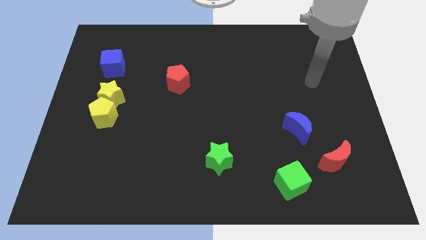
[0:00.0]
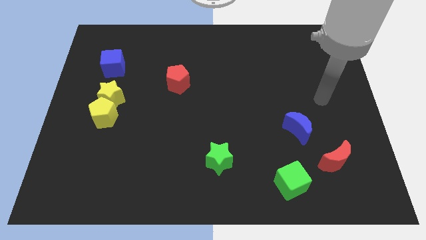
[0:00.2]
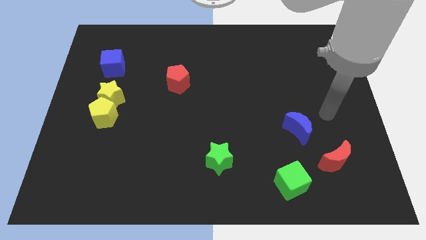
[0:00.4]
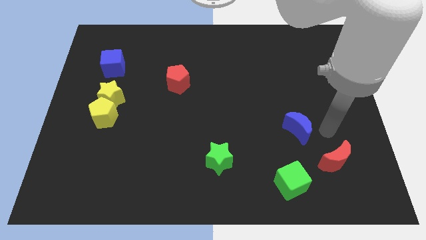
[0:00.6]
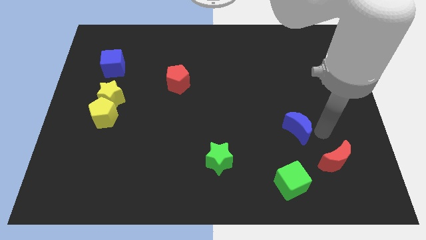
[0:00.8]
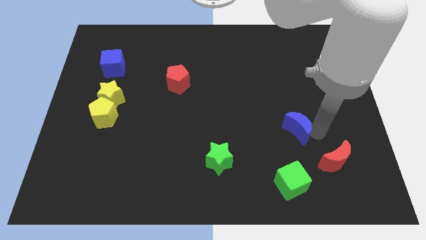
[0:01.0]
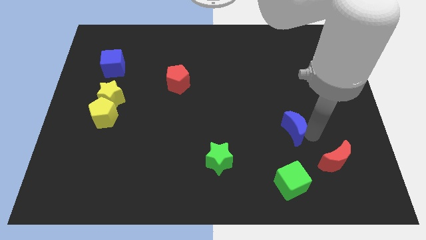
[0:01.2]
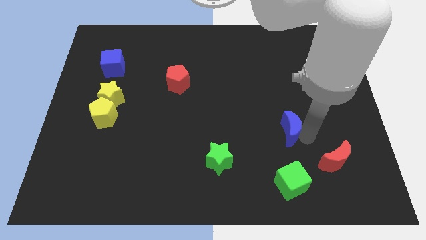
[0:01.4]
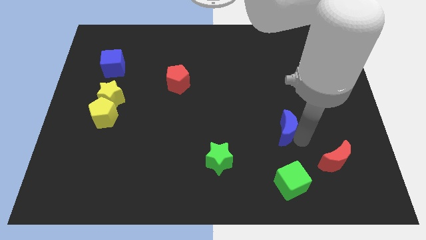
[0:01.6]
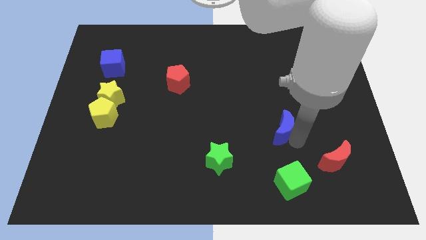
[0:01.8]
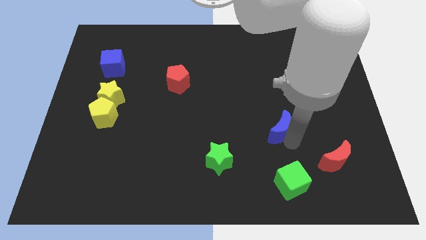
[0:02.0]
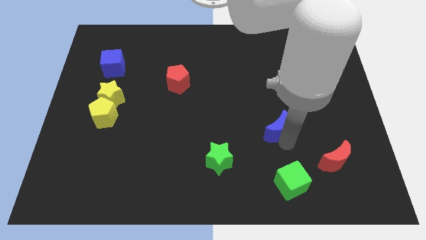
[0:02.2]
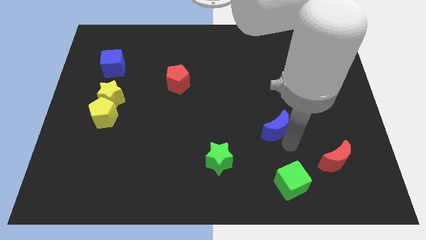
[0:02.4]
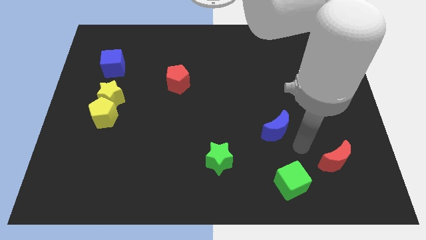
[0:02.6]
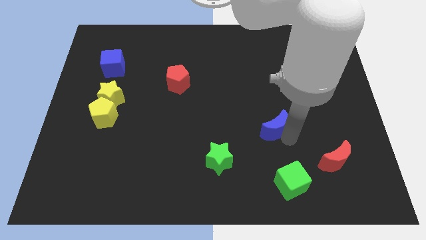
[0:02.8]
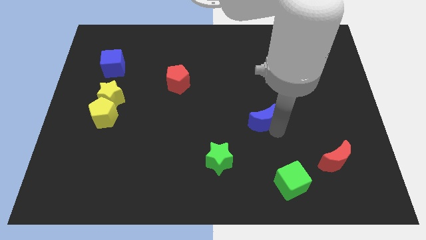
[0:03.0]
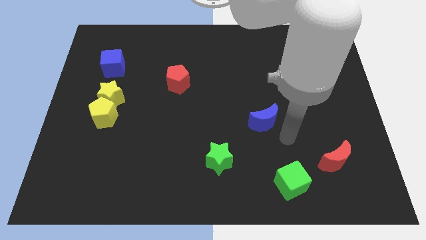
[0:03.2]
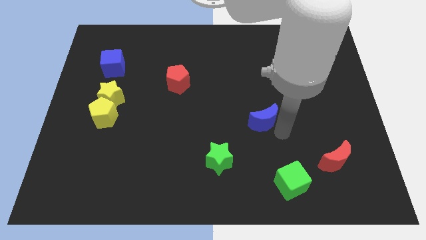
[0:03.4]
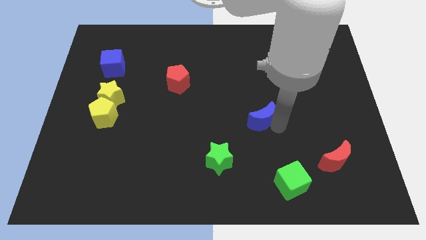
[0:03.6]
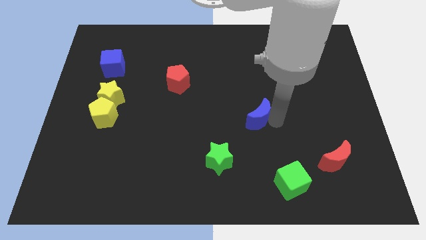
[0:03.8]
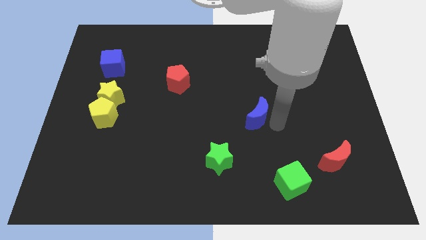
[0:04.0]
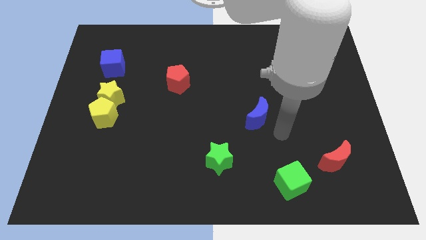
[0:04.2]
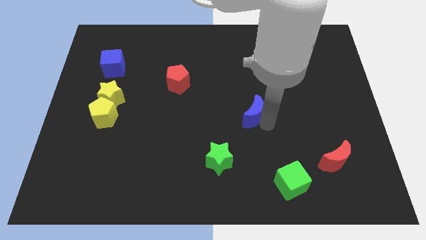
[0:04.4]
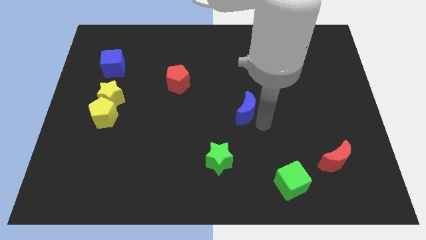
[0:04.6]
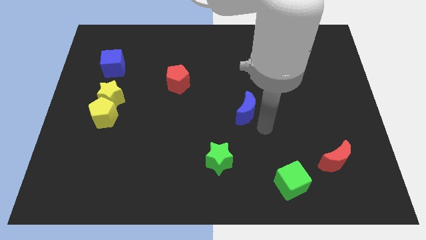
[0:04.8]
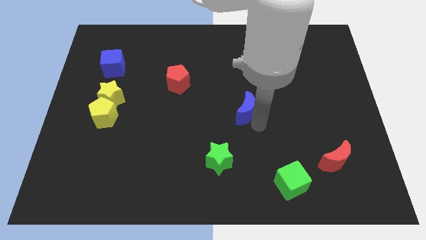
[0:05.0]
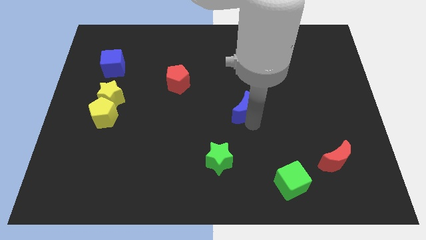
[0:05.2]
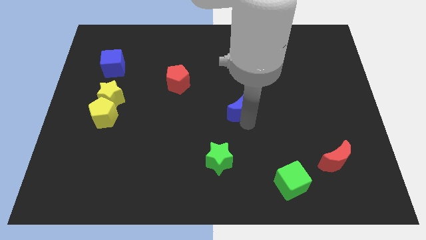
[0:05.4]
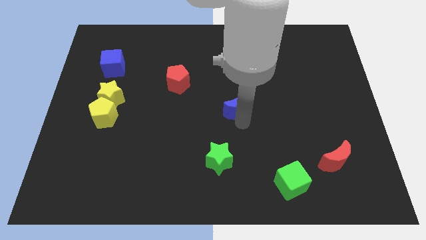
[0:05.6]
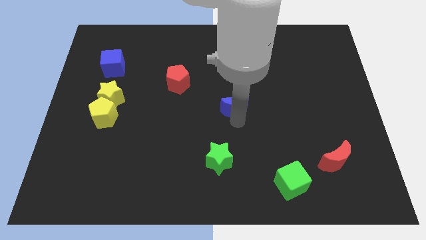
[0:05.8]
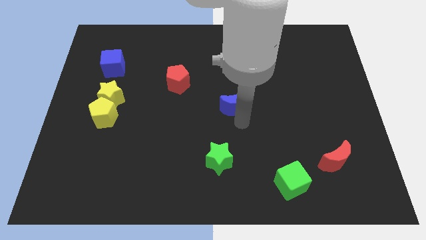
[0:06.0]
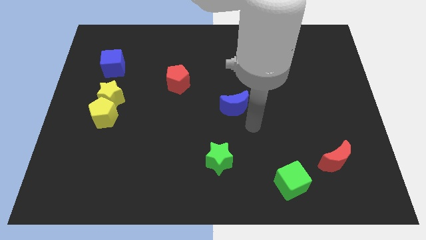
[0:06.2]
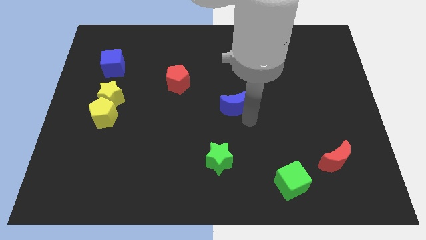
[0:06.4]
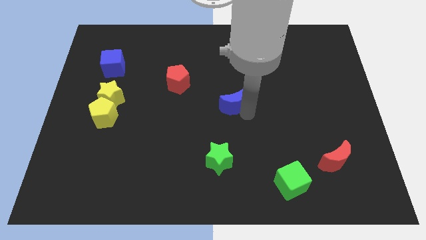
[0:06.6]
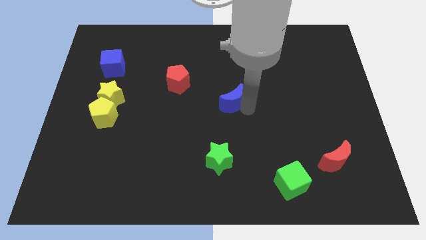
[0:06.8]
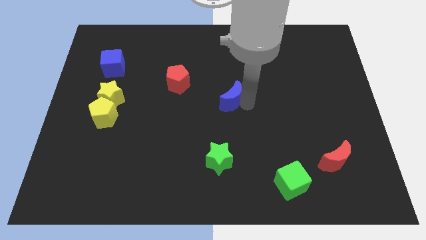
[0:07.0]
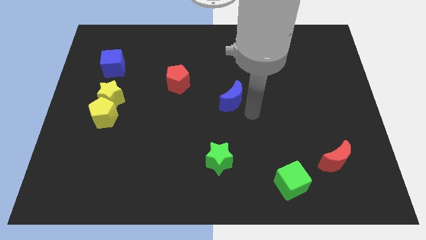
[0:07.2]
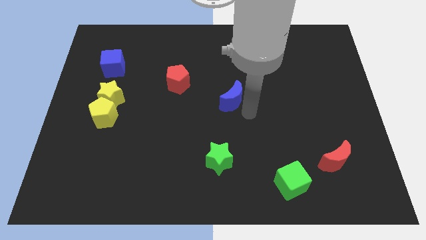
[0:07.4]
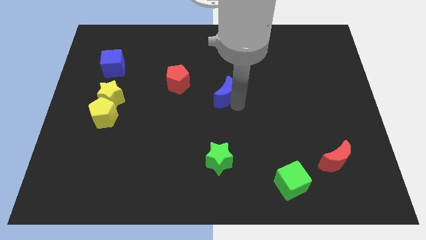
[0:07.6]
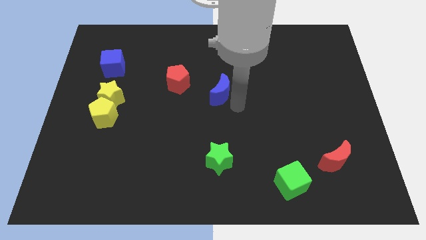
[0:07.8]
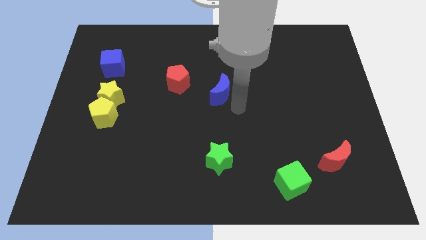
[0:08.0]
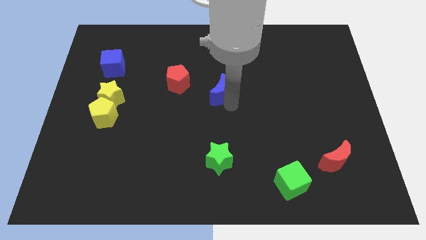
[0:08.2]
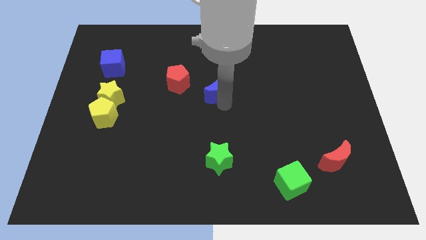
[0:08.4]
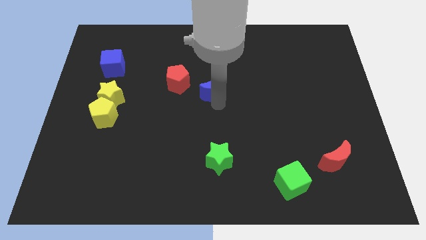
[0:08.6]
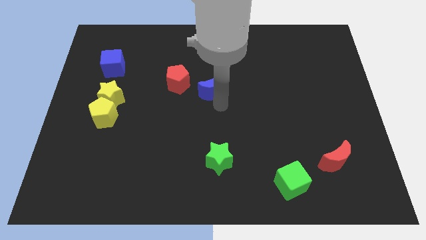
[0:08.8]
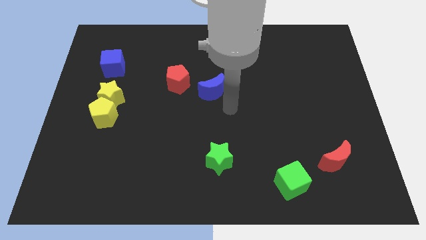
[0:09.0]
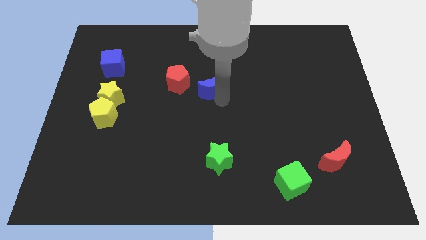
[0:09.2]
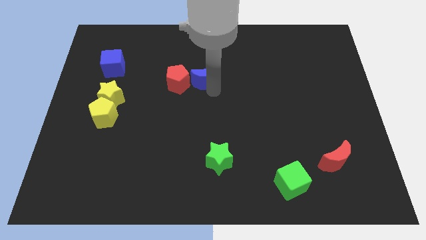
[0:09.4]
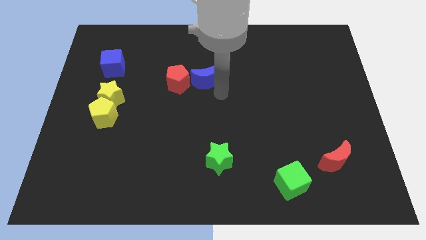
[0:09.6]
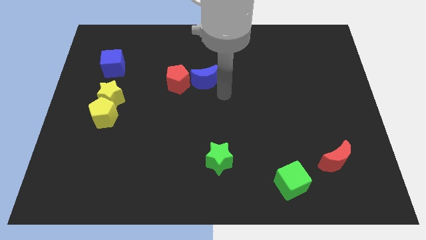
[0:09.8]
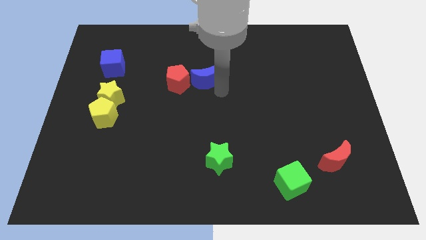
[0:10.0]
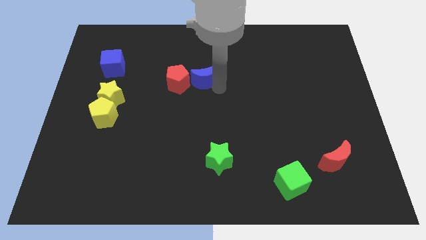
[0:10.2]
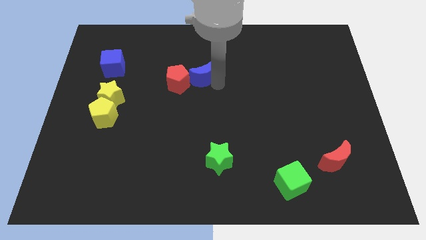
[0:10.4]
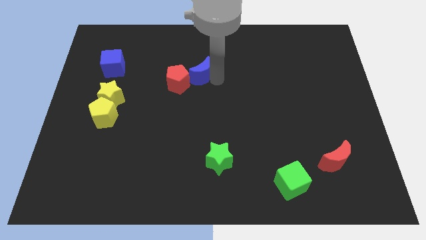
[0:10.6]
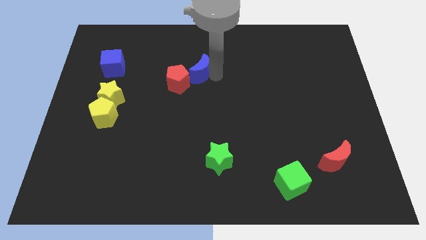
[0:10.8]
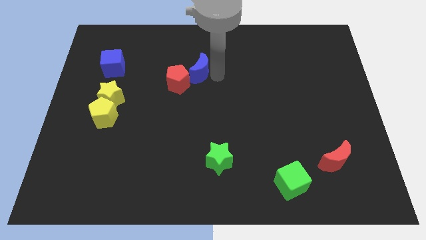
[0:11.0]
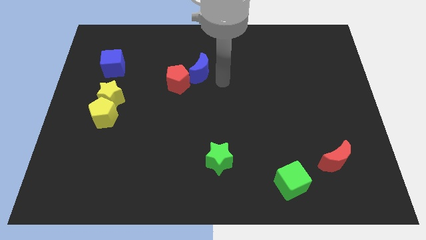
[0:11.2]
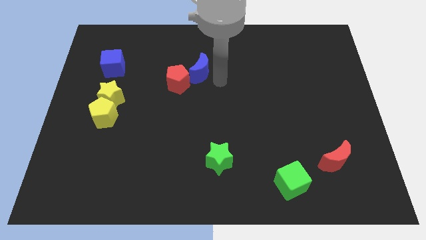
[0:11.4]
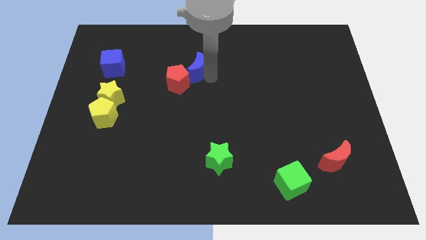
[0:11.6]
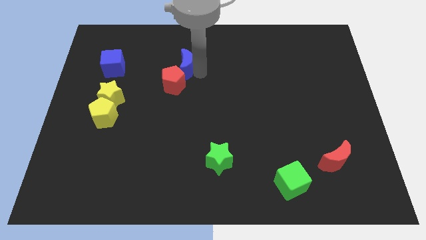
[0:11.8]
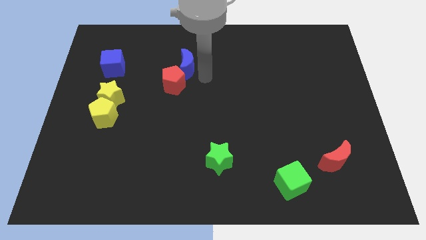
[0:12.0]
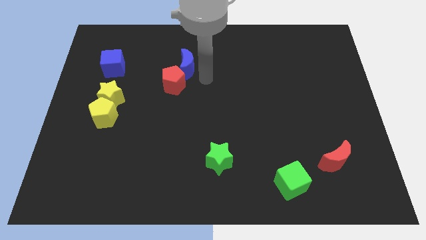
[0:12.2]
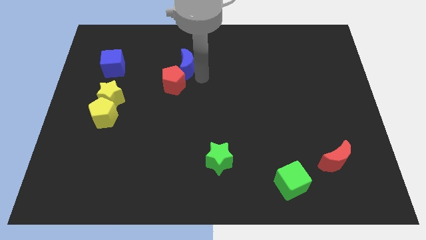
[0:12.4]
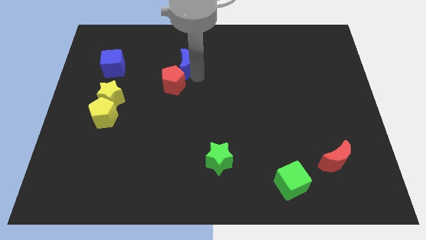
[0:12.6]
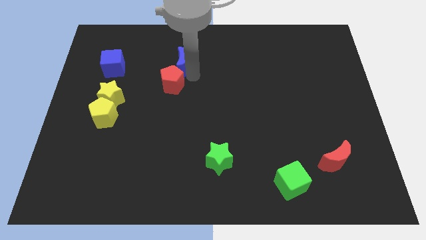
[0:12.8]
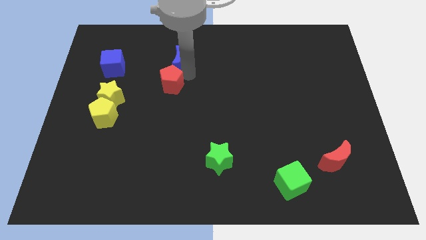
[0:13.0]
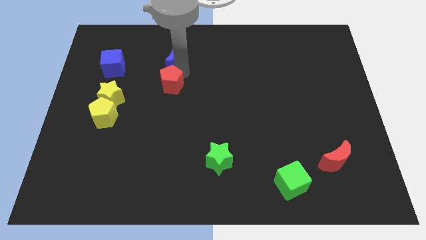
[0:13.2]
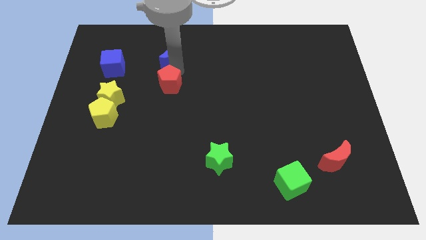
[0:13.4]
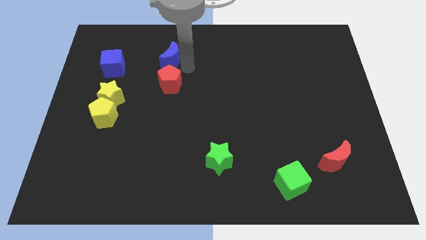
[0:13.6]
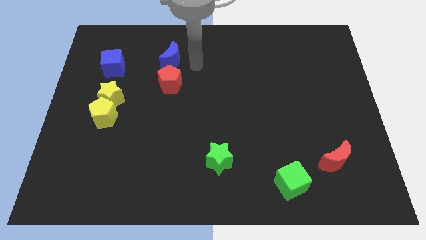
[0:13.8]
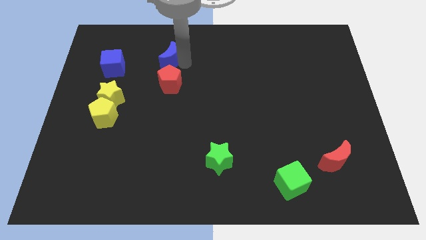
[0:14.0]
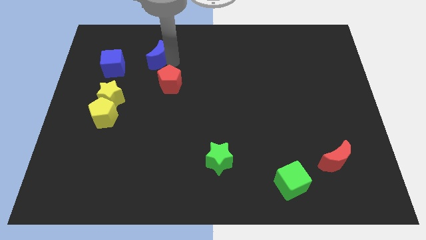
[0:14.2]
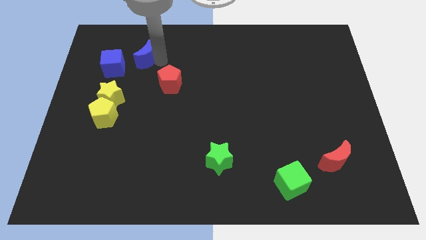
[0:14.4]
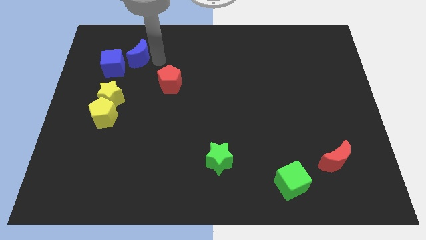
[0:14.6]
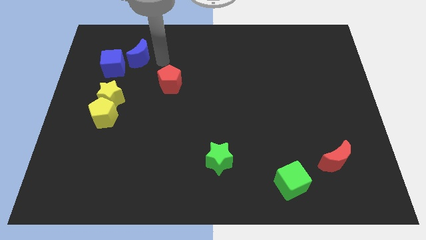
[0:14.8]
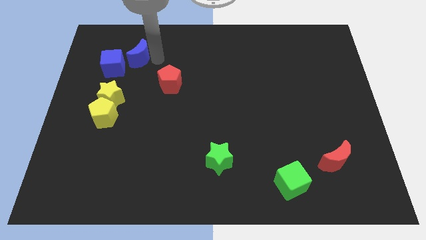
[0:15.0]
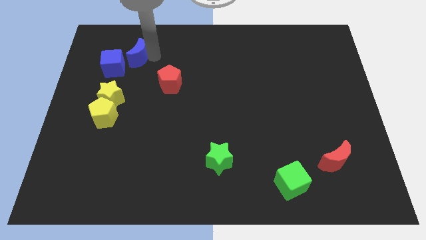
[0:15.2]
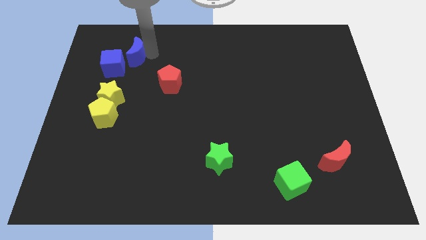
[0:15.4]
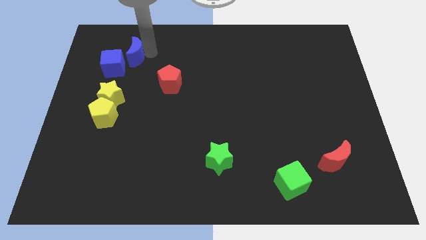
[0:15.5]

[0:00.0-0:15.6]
push the blue moon above the yellow star
